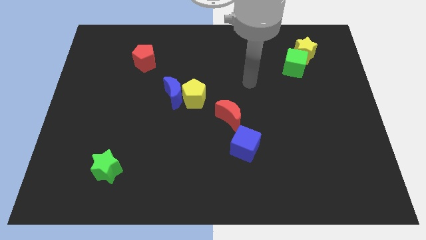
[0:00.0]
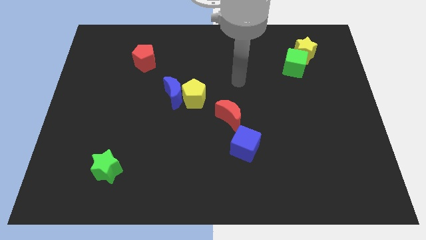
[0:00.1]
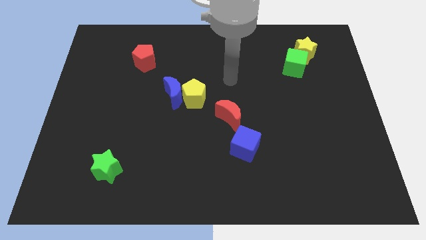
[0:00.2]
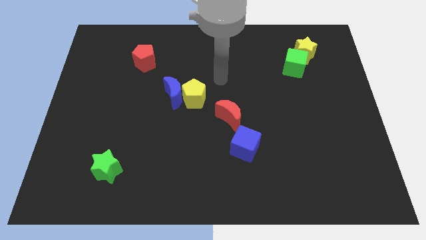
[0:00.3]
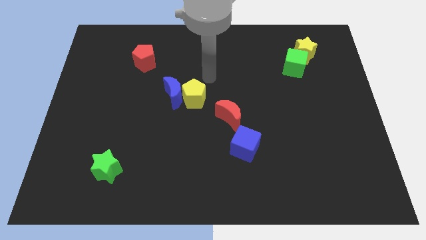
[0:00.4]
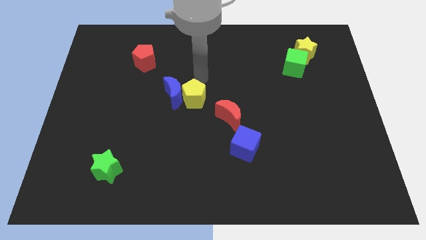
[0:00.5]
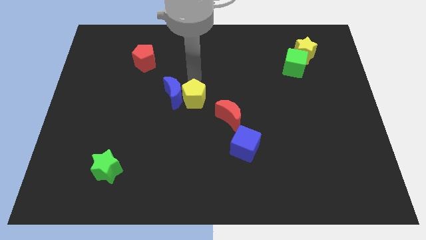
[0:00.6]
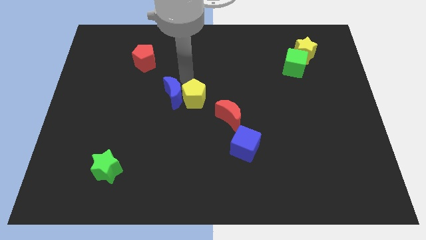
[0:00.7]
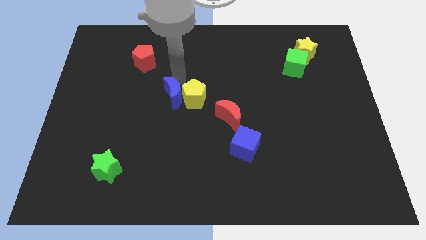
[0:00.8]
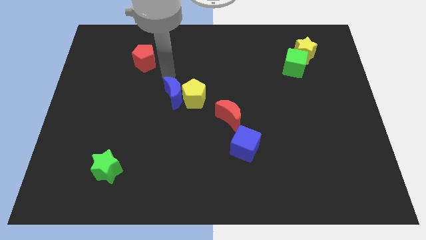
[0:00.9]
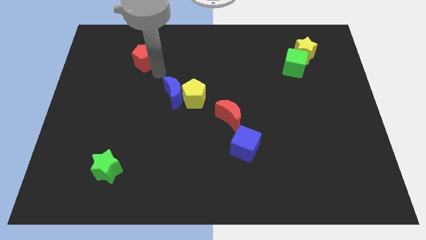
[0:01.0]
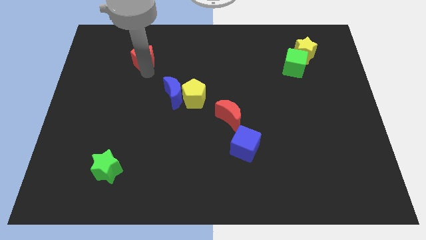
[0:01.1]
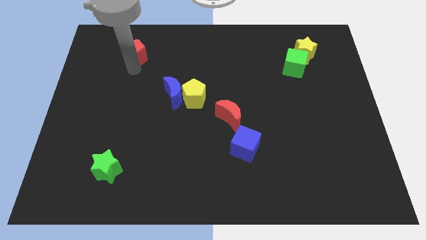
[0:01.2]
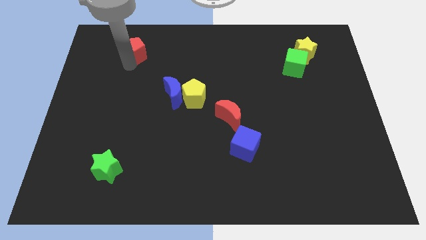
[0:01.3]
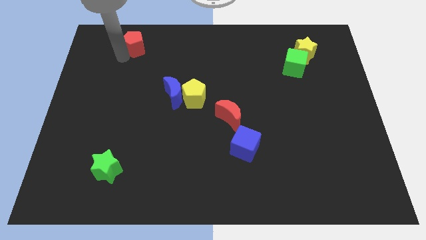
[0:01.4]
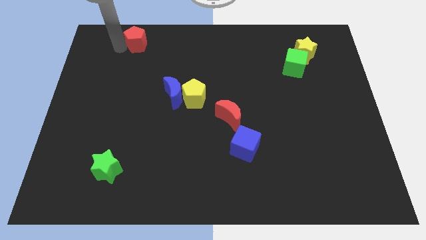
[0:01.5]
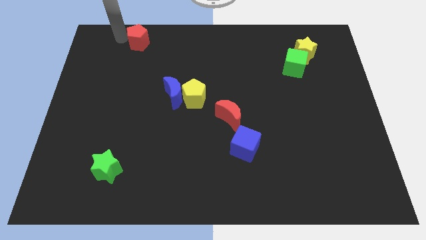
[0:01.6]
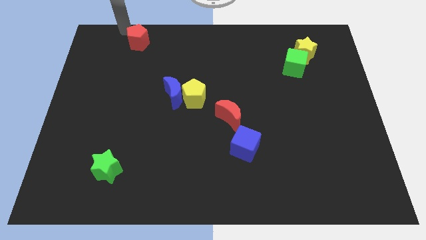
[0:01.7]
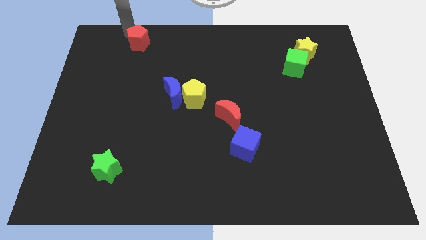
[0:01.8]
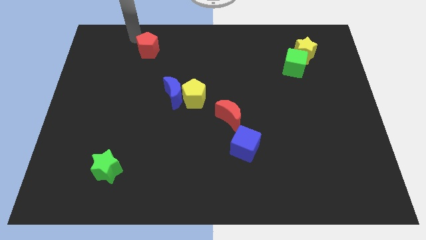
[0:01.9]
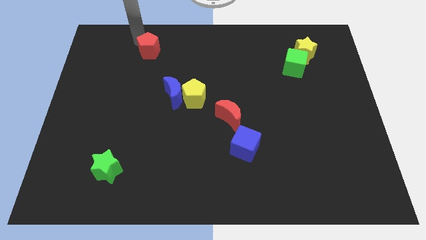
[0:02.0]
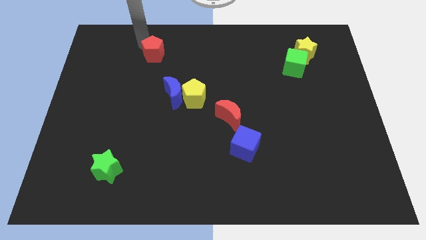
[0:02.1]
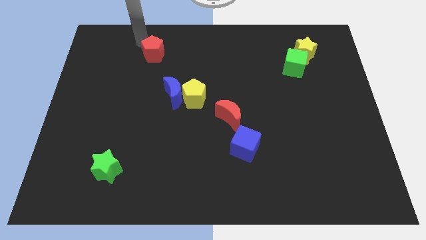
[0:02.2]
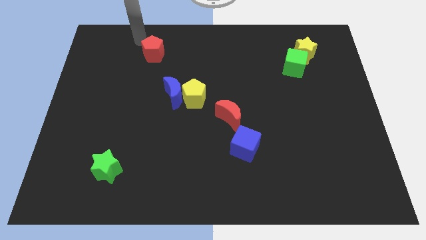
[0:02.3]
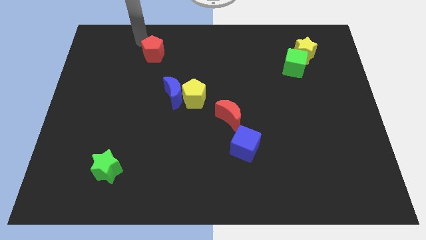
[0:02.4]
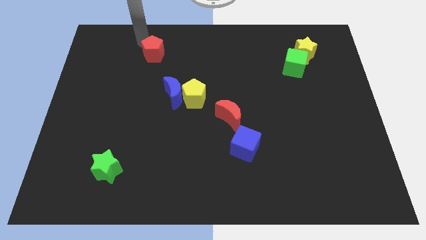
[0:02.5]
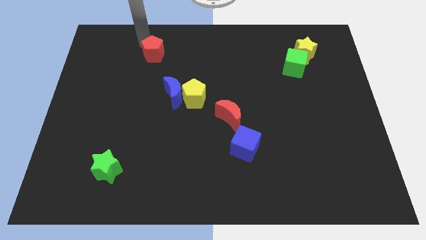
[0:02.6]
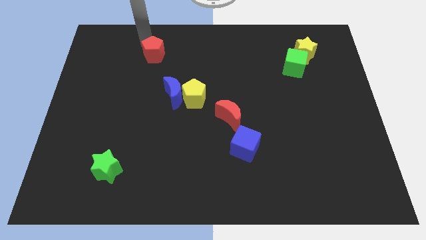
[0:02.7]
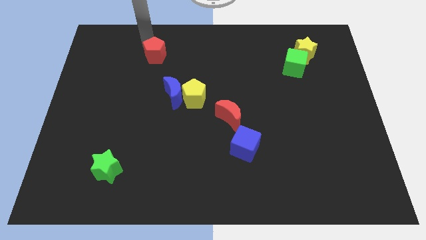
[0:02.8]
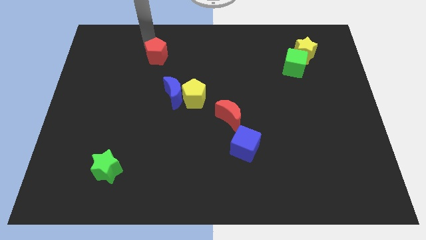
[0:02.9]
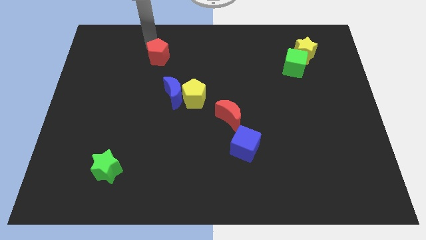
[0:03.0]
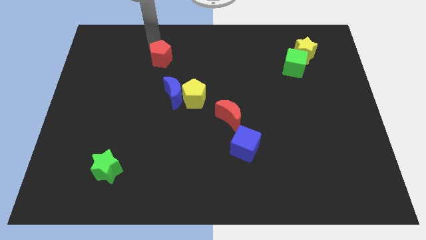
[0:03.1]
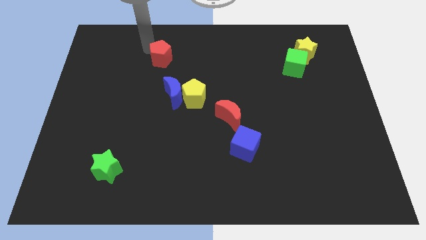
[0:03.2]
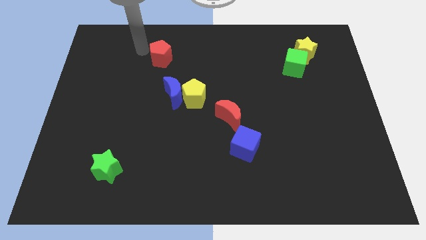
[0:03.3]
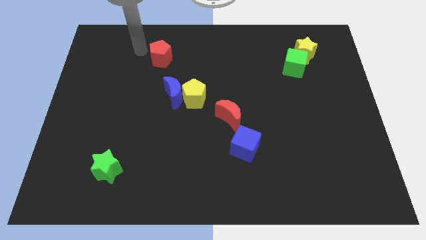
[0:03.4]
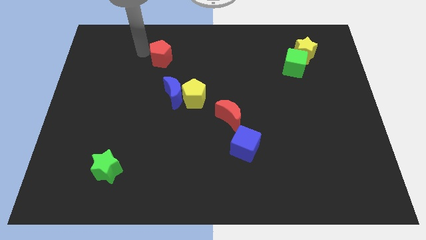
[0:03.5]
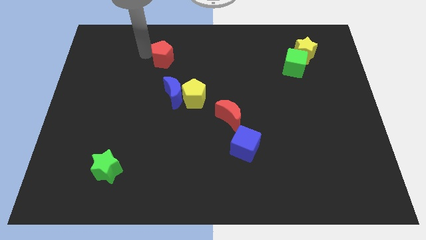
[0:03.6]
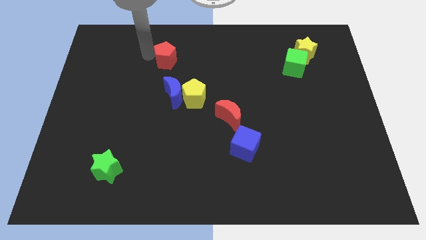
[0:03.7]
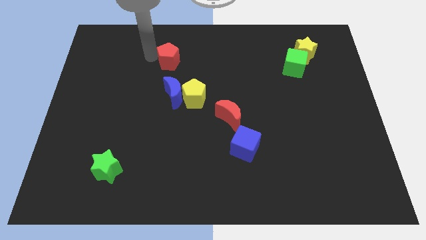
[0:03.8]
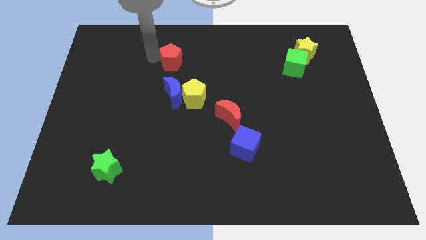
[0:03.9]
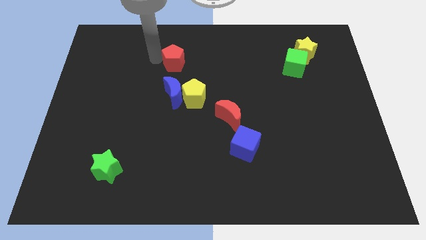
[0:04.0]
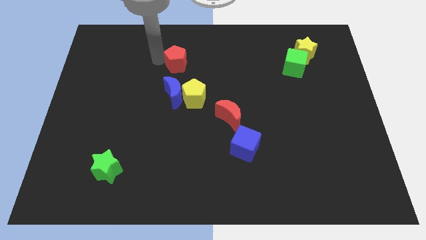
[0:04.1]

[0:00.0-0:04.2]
push the red pentagon to the top of the yellow pentagon

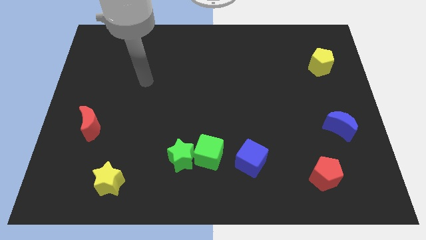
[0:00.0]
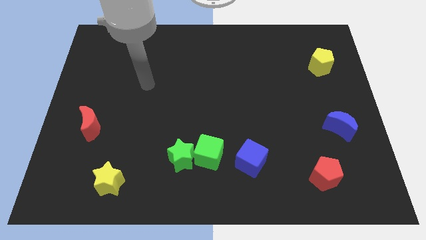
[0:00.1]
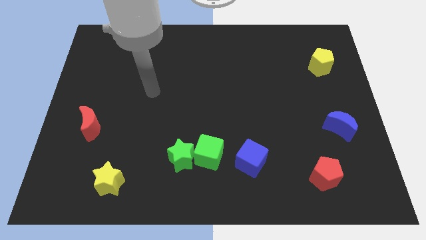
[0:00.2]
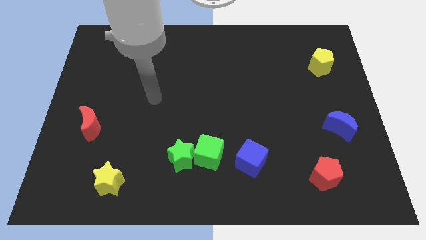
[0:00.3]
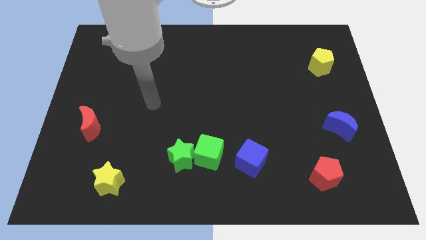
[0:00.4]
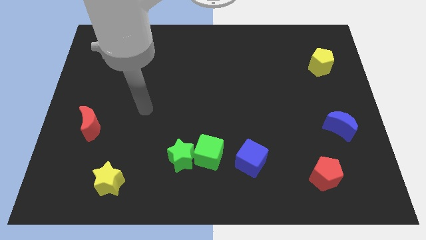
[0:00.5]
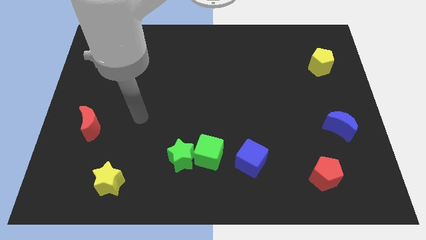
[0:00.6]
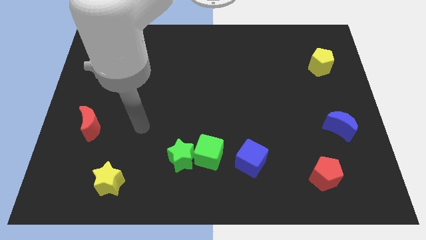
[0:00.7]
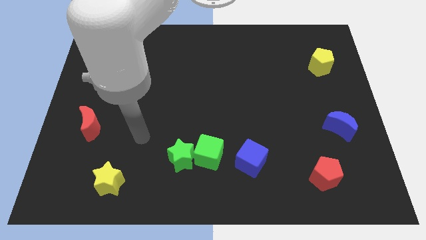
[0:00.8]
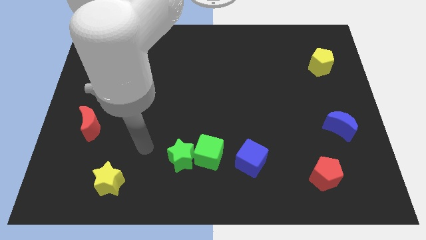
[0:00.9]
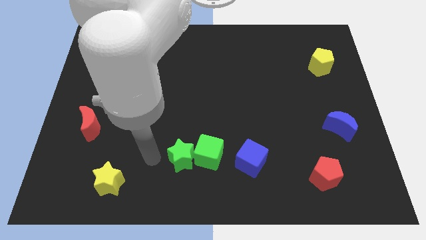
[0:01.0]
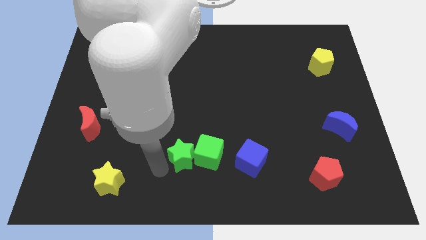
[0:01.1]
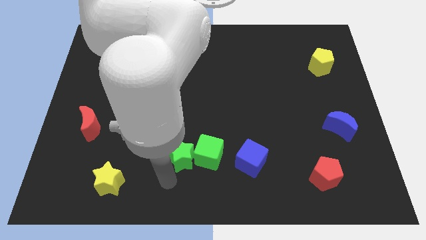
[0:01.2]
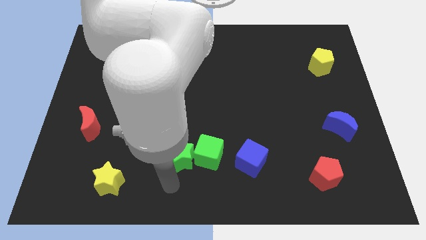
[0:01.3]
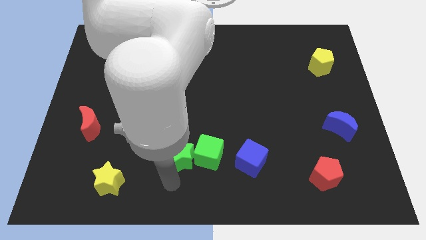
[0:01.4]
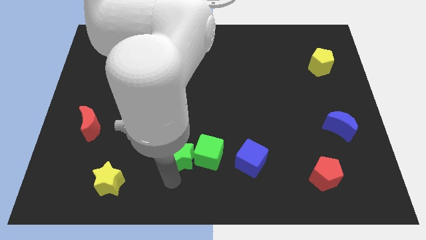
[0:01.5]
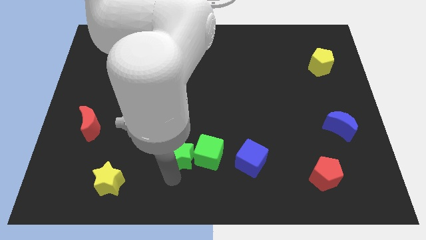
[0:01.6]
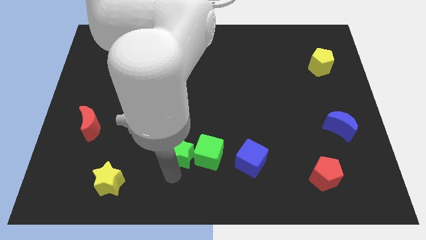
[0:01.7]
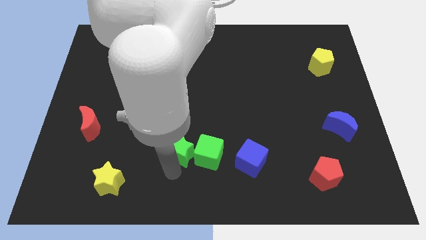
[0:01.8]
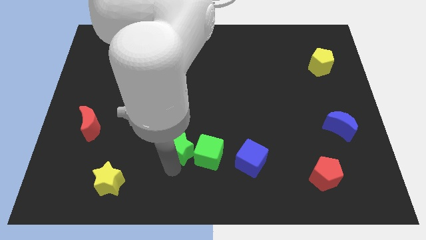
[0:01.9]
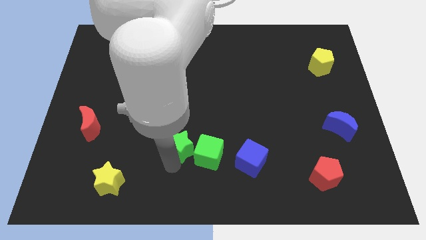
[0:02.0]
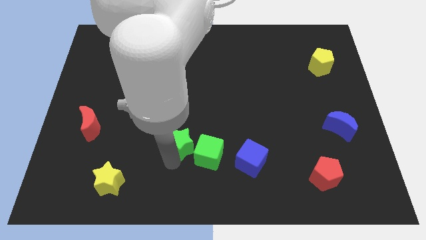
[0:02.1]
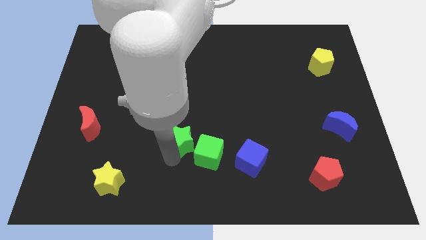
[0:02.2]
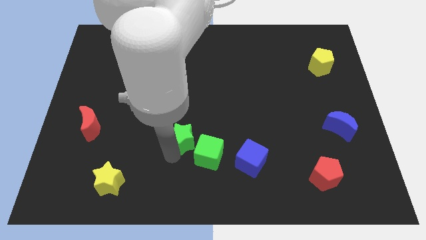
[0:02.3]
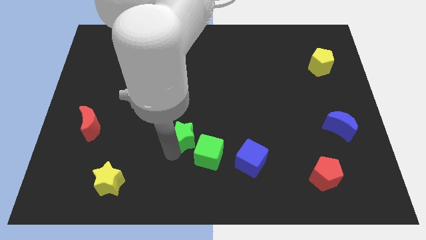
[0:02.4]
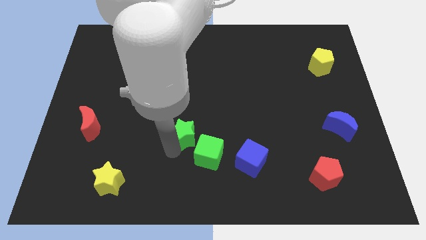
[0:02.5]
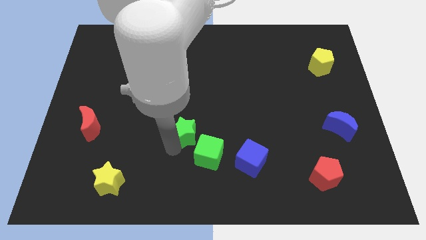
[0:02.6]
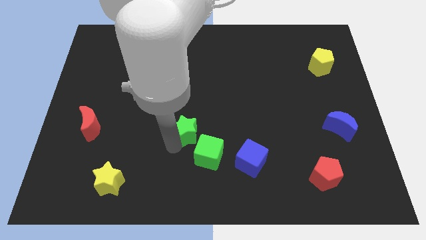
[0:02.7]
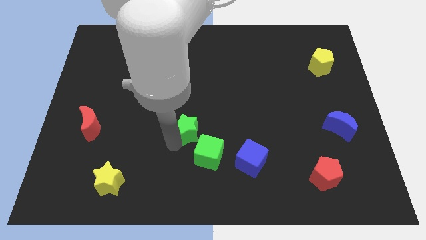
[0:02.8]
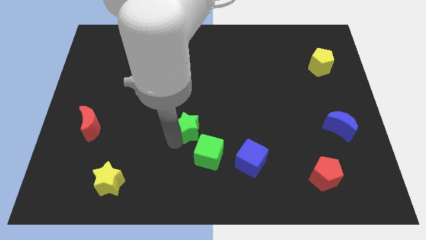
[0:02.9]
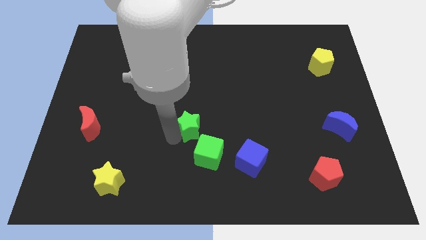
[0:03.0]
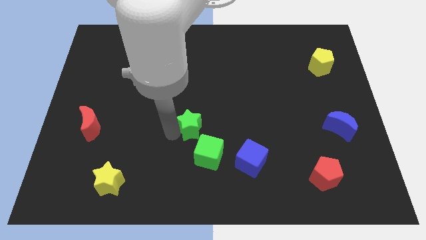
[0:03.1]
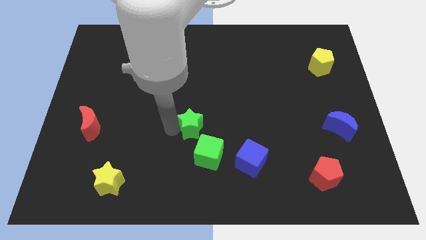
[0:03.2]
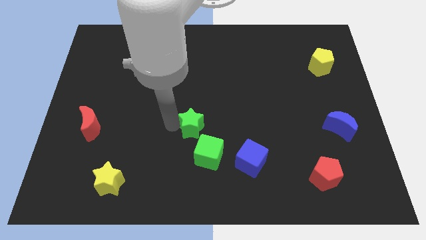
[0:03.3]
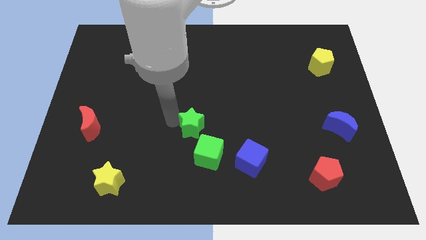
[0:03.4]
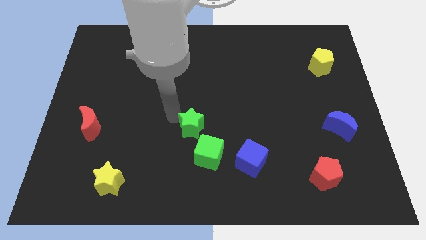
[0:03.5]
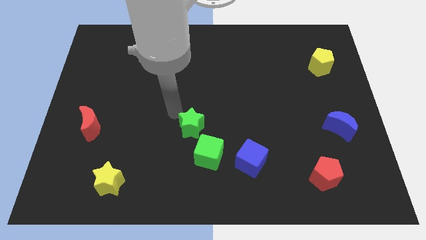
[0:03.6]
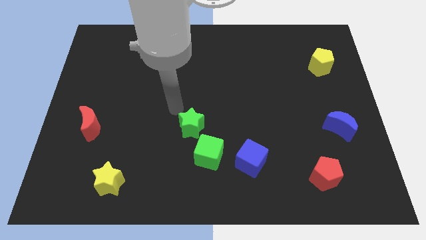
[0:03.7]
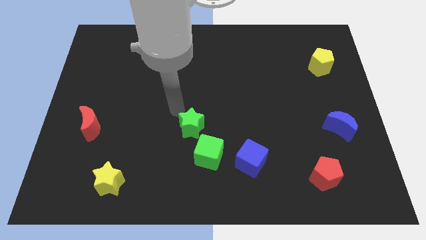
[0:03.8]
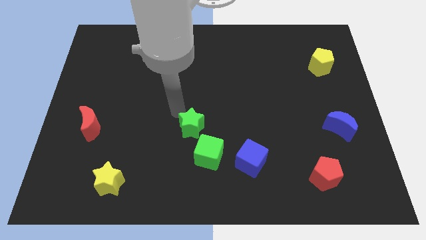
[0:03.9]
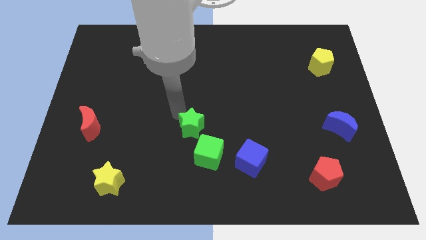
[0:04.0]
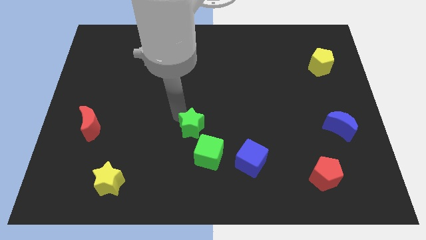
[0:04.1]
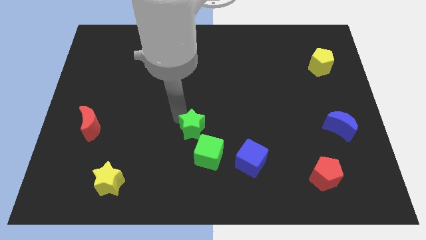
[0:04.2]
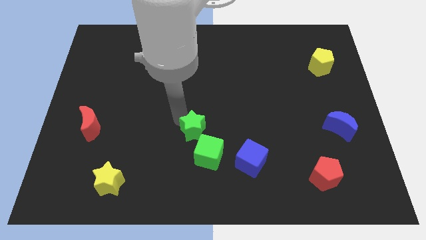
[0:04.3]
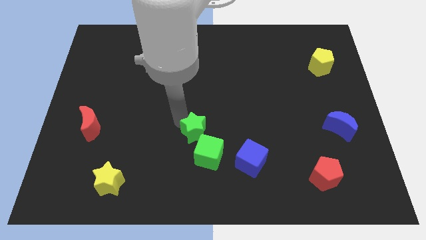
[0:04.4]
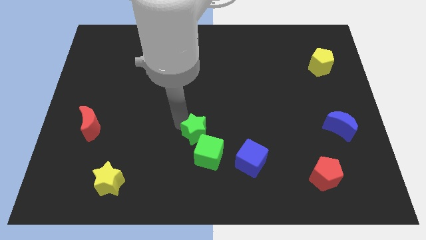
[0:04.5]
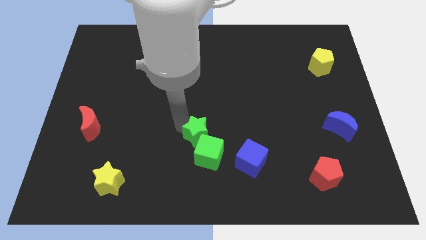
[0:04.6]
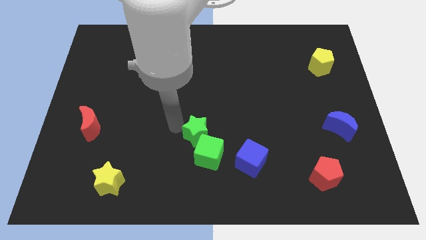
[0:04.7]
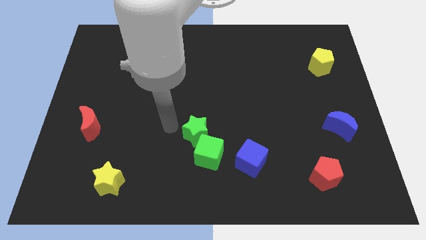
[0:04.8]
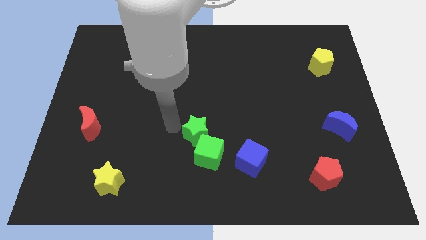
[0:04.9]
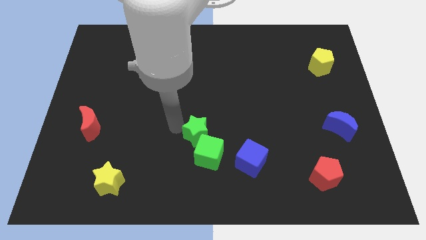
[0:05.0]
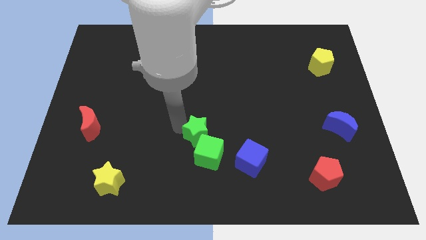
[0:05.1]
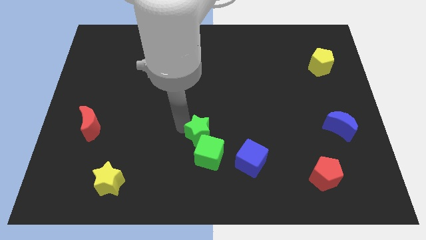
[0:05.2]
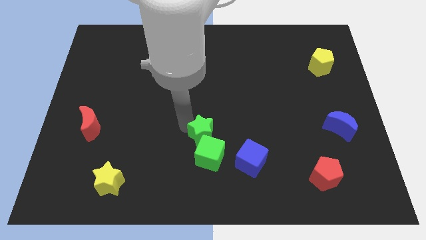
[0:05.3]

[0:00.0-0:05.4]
push the green star diagonally up and to the left of the blue cube
